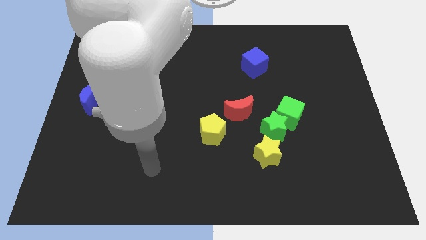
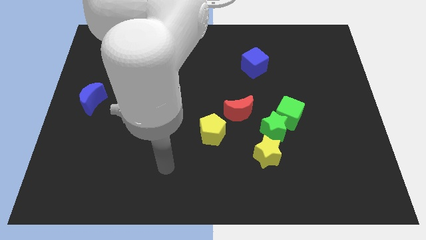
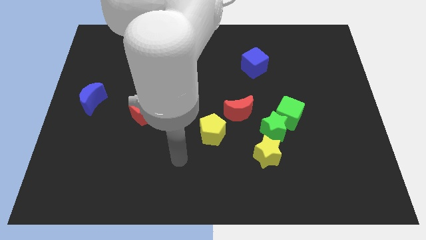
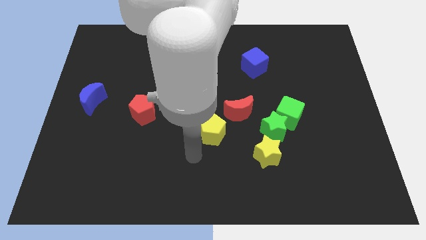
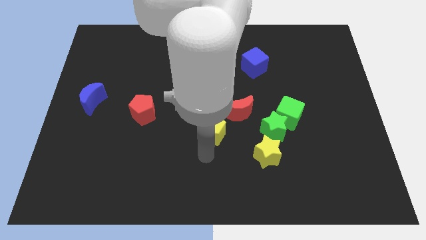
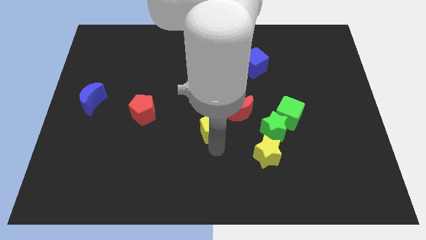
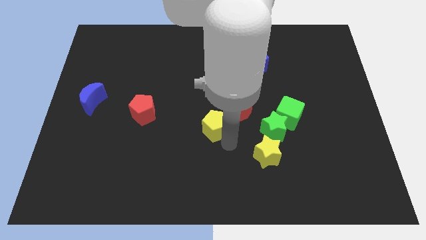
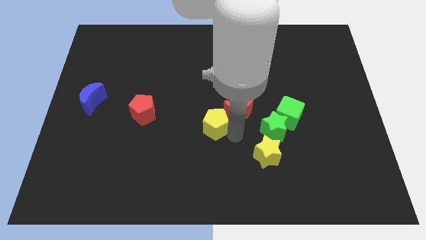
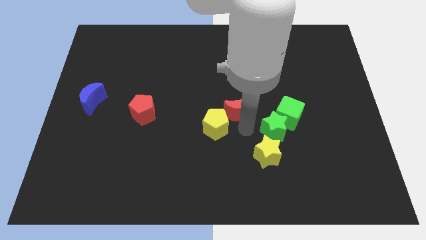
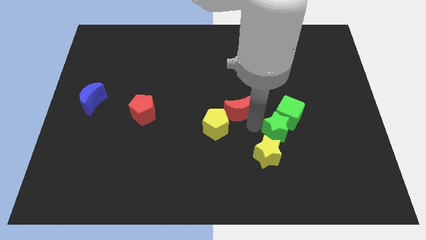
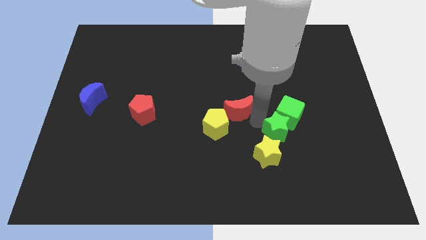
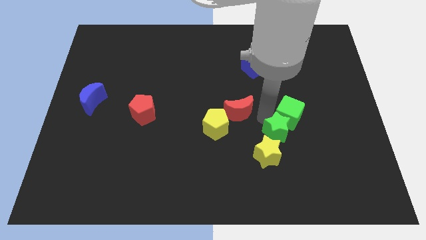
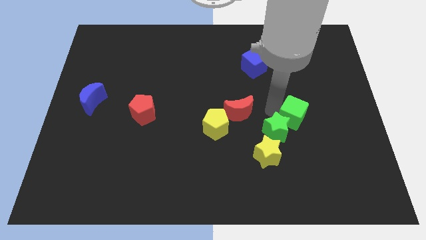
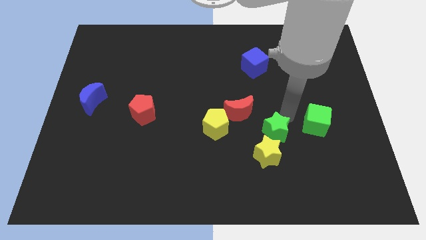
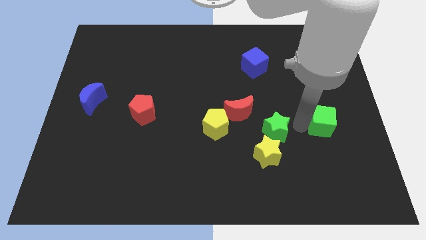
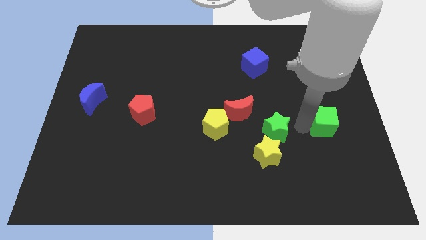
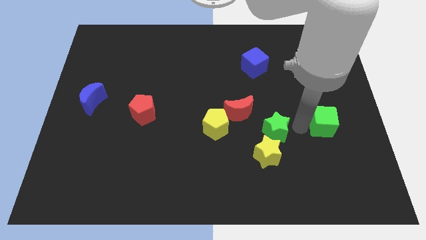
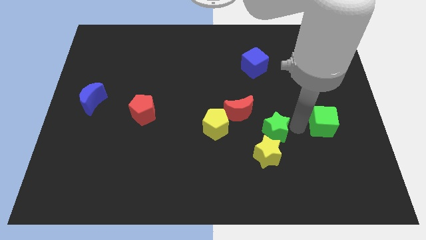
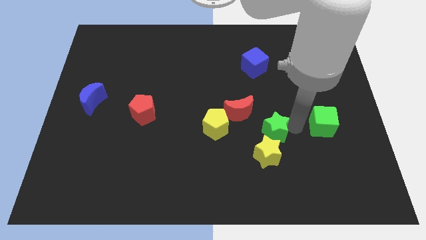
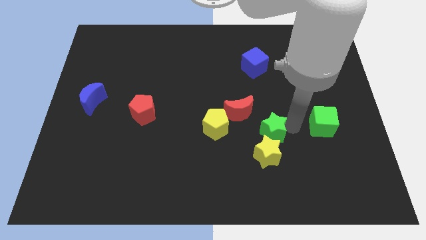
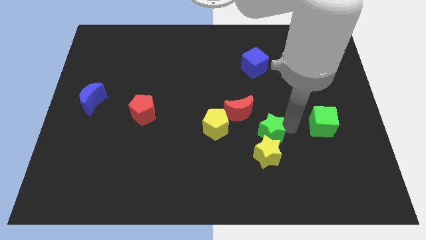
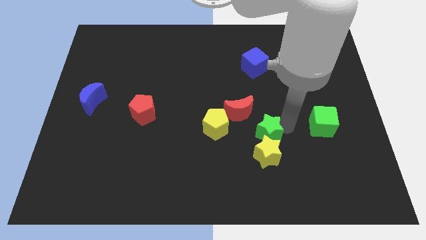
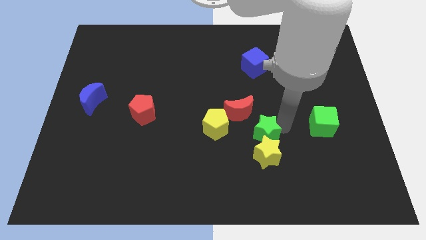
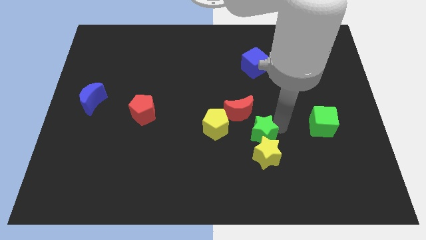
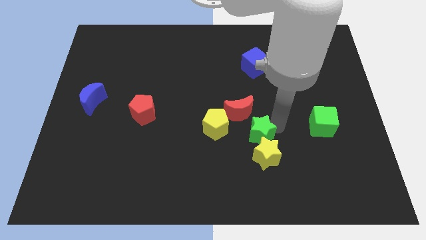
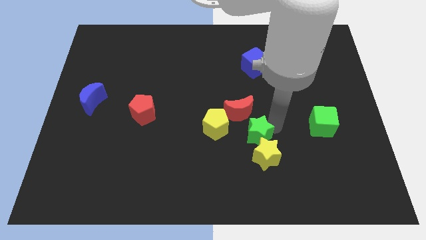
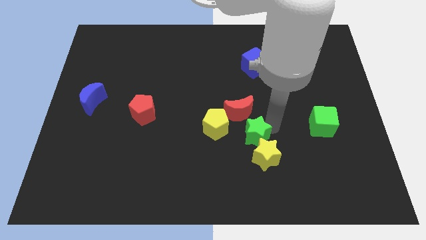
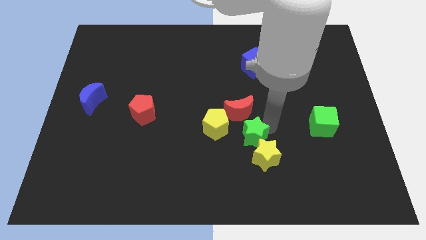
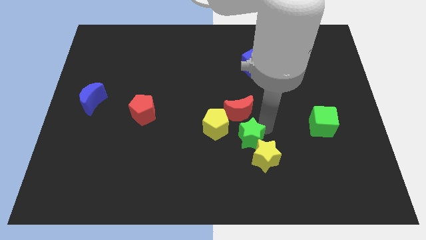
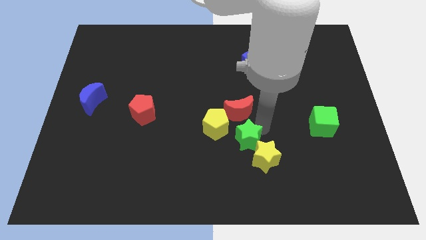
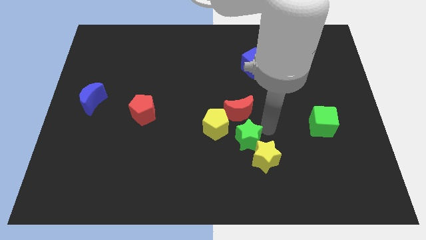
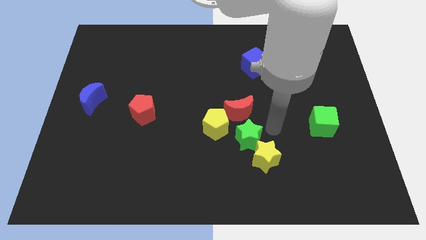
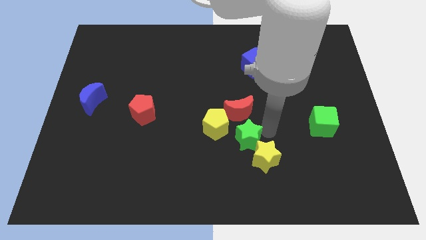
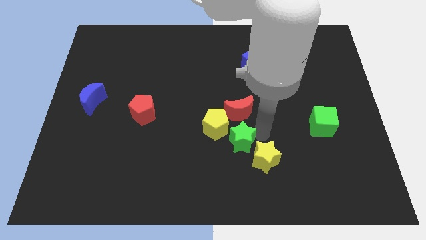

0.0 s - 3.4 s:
slide the green star to the left somewhat

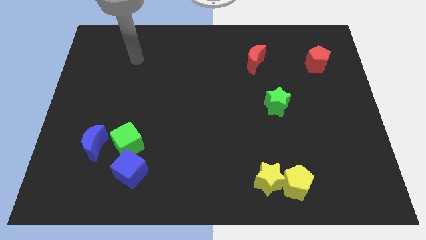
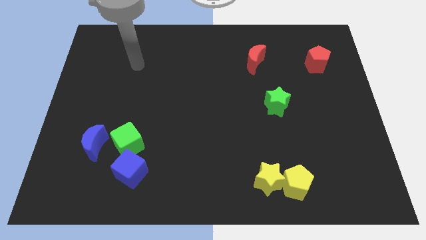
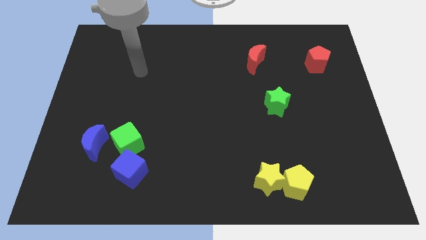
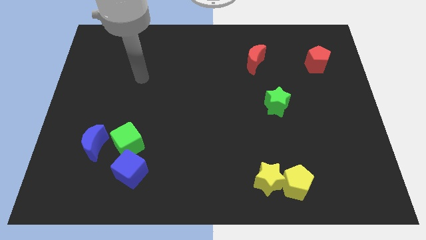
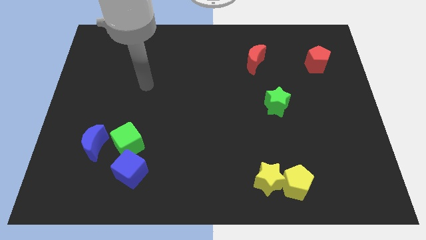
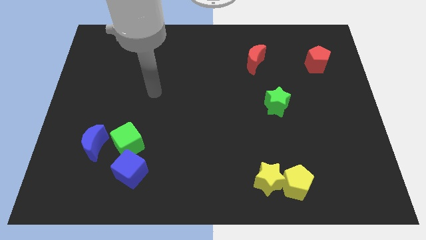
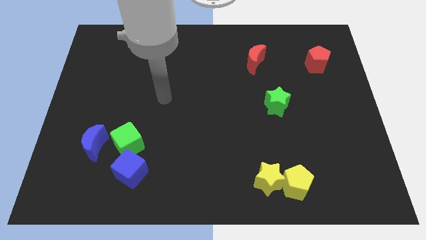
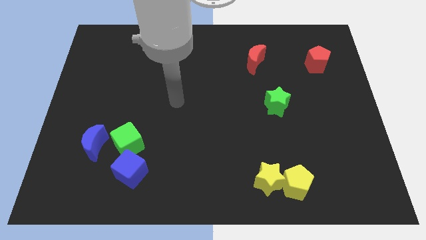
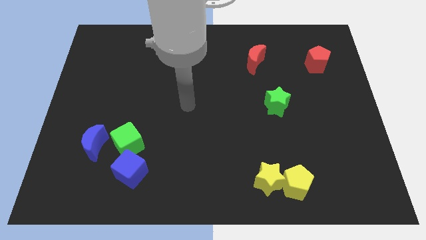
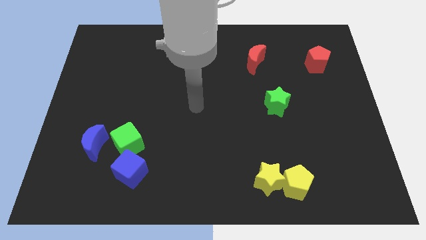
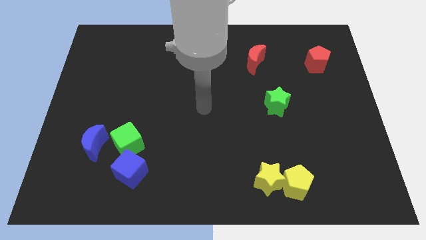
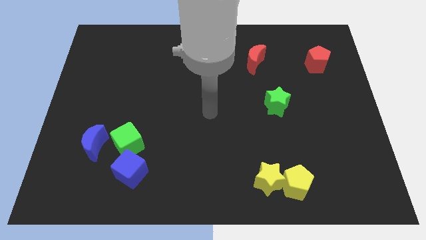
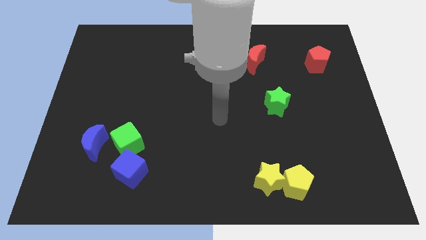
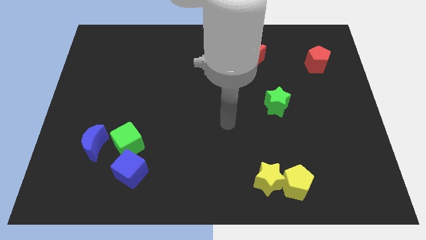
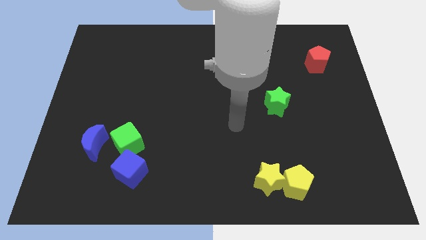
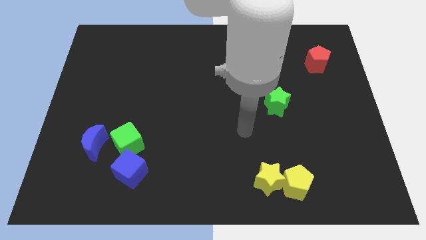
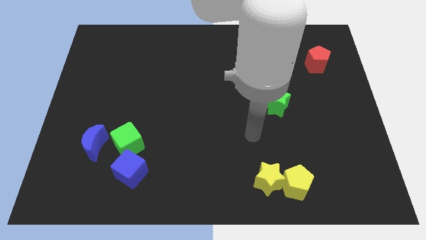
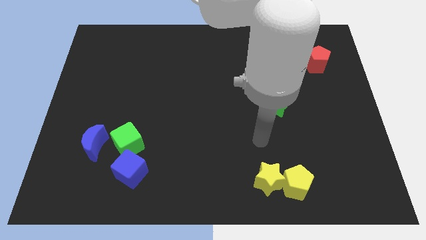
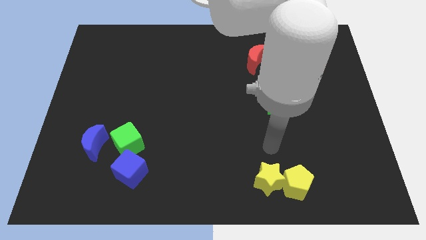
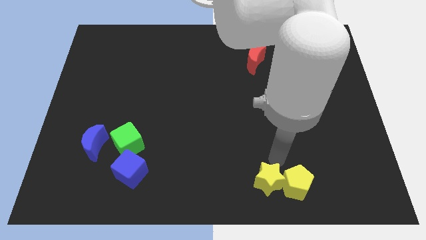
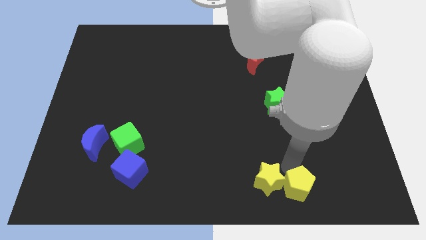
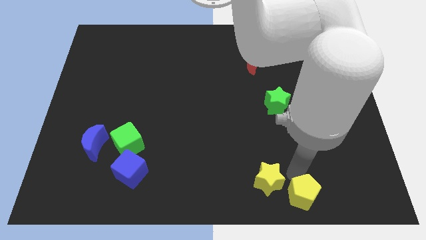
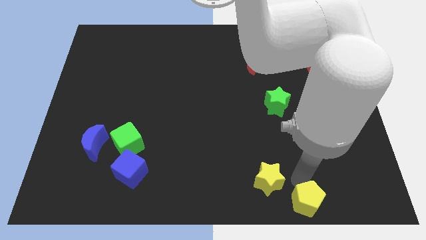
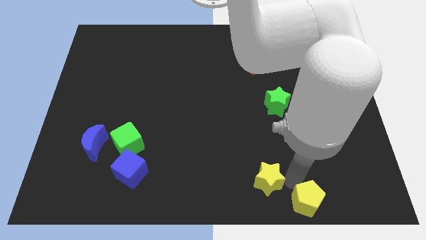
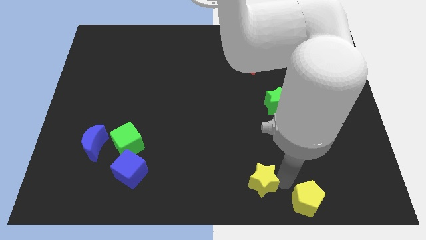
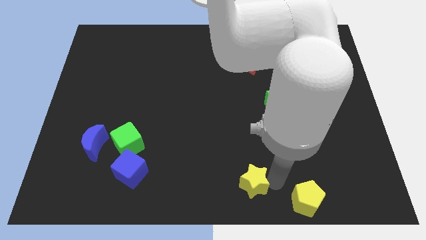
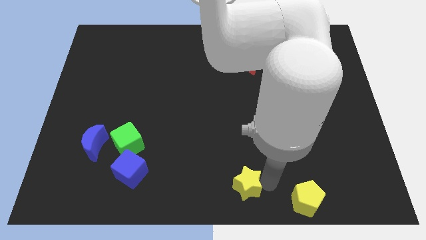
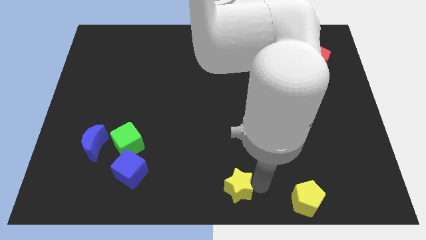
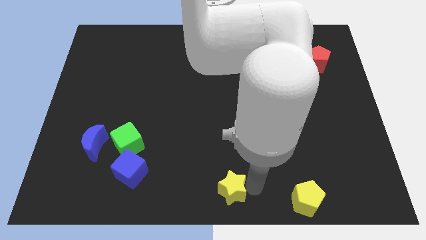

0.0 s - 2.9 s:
move the yellow star to the left slightly

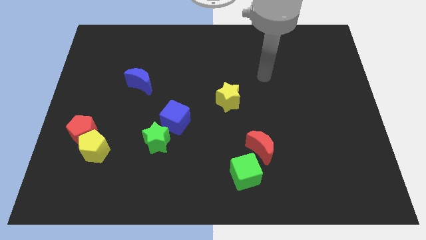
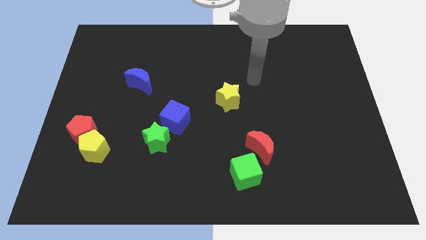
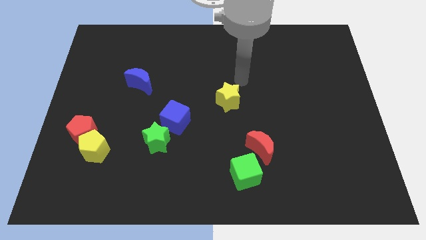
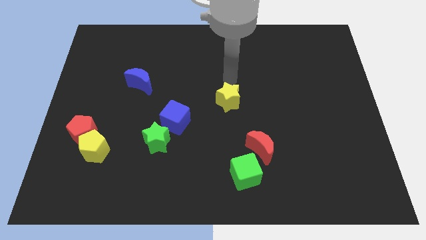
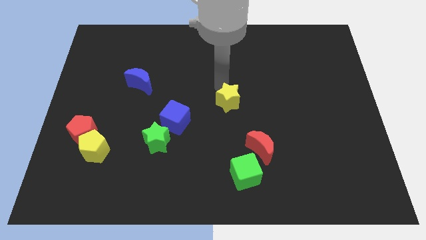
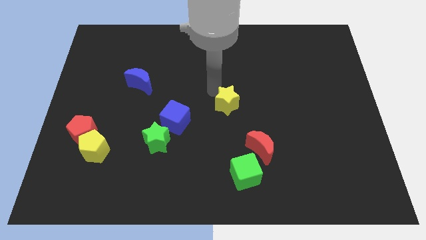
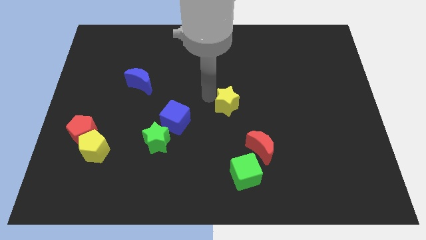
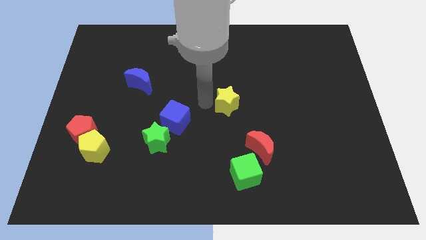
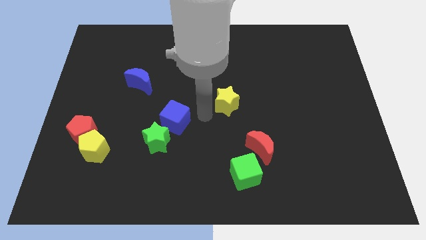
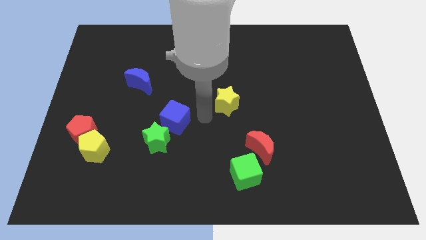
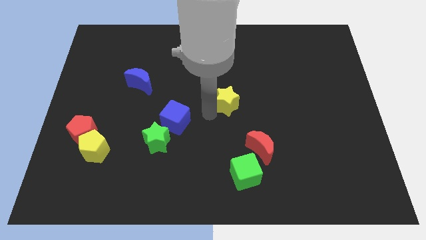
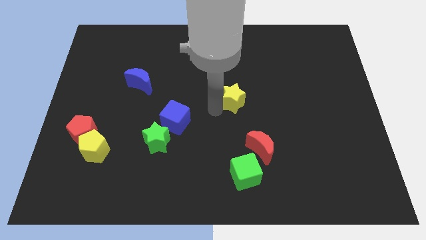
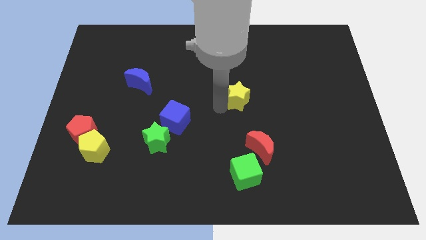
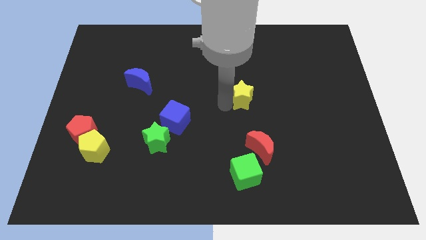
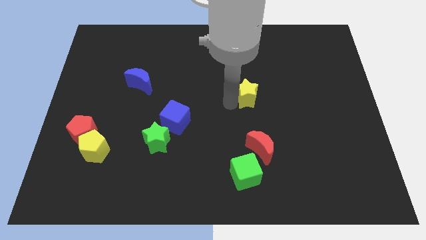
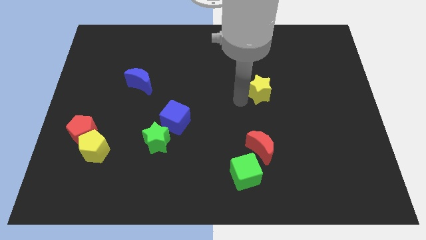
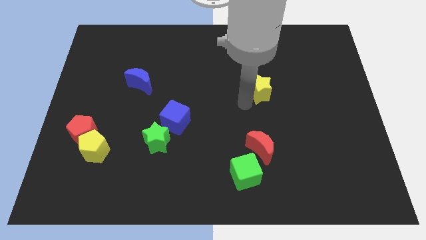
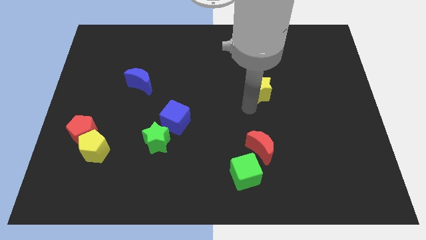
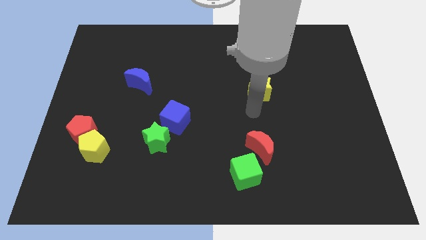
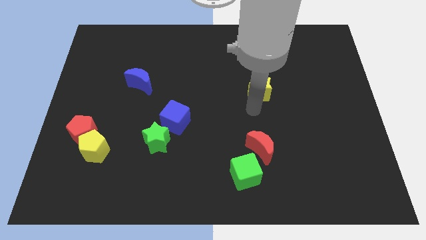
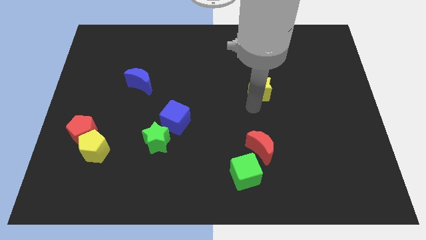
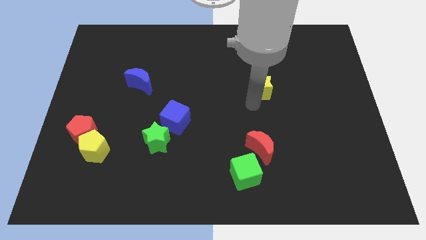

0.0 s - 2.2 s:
move the yellow star up and then to the right slightly
